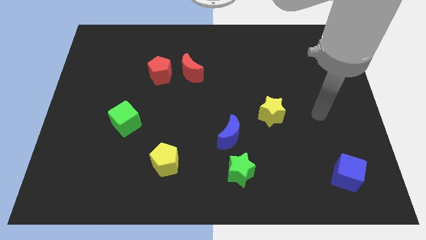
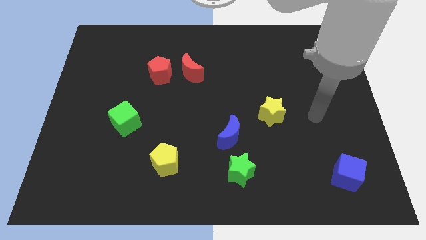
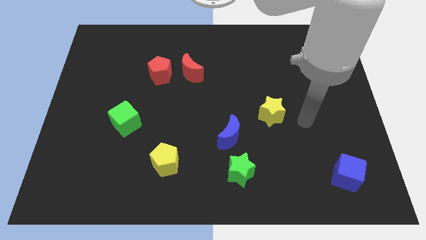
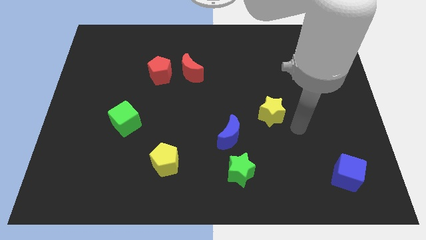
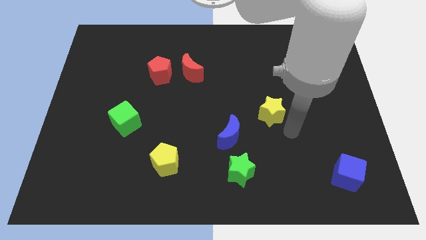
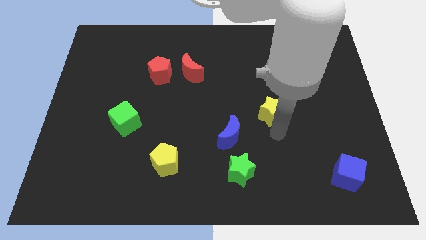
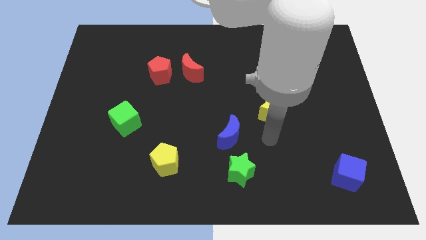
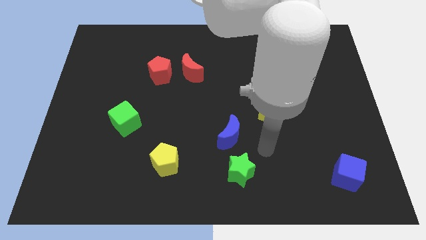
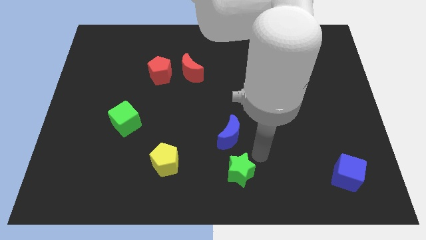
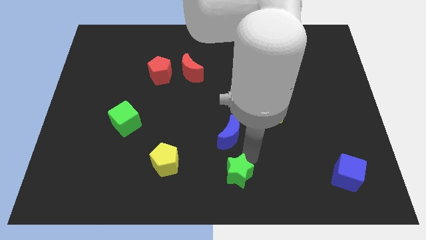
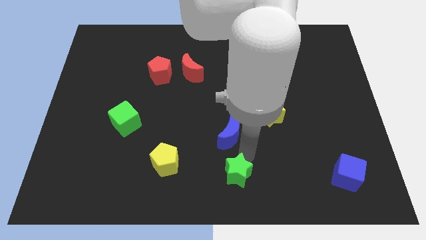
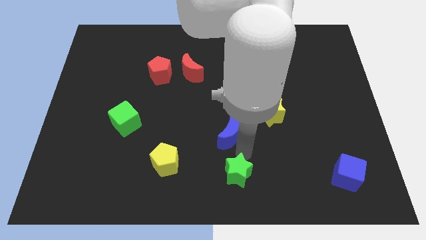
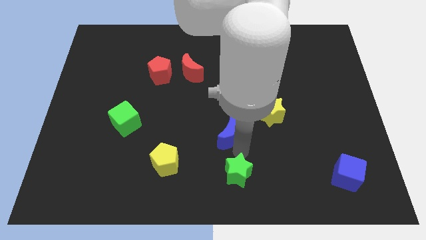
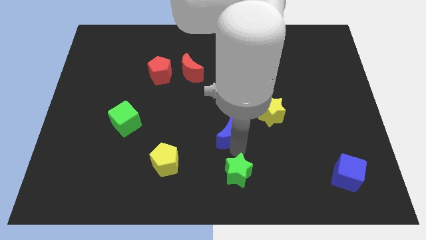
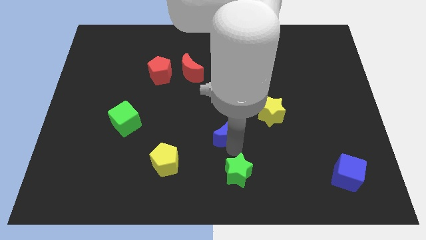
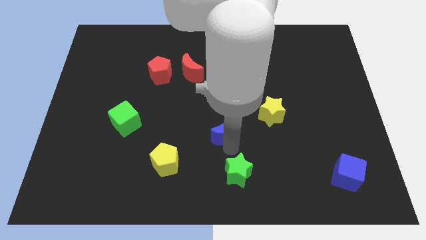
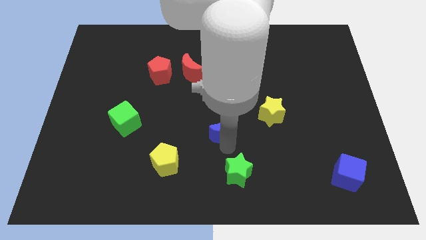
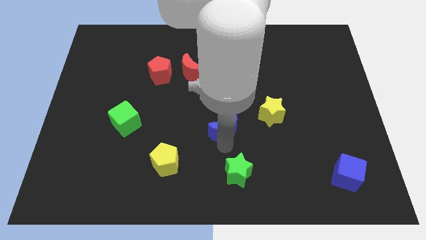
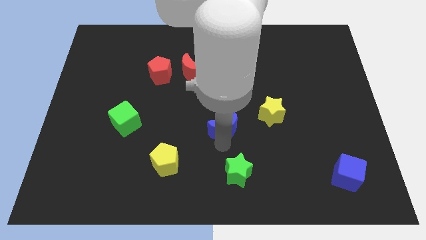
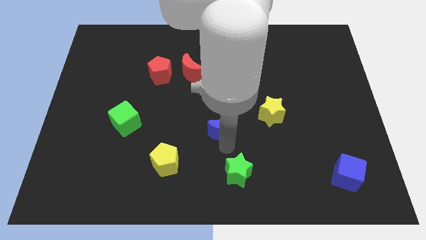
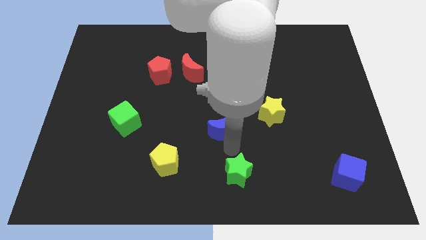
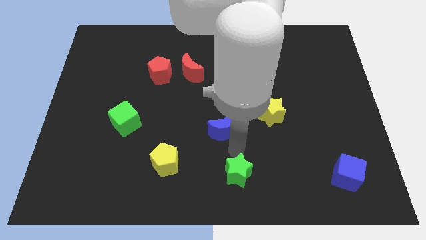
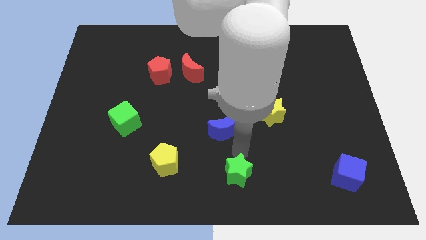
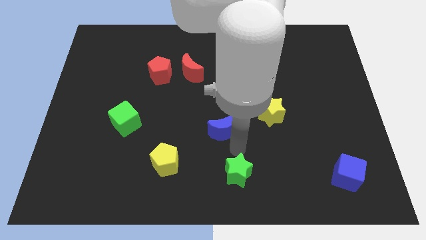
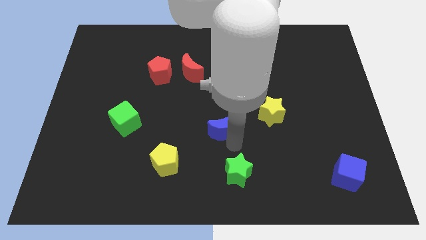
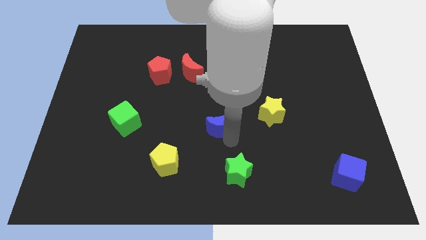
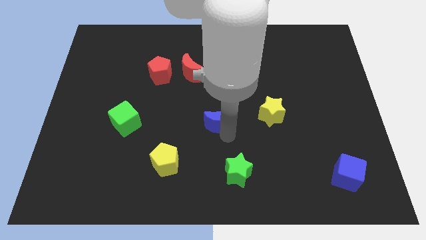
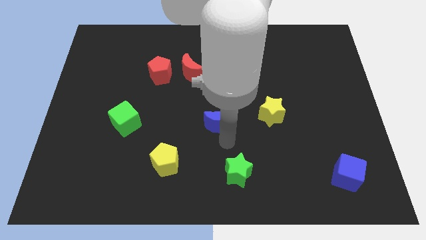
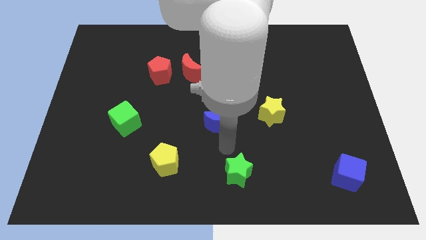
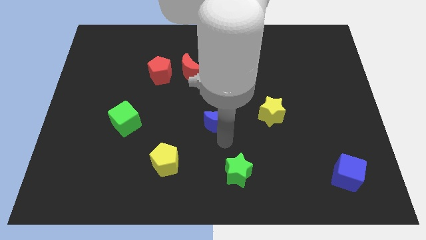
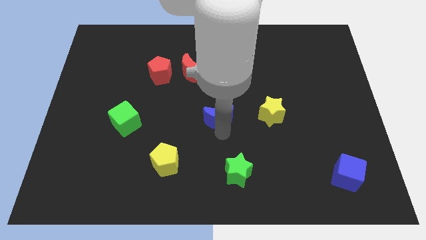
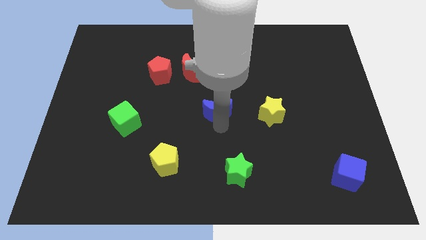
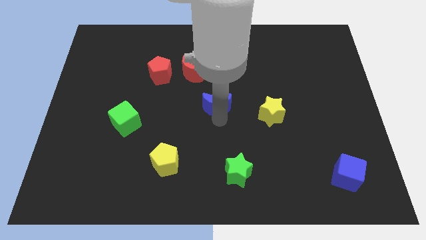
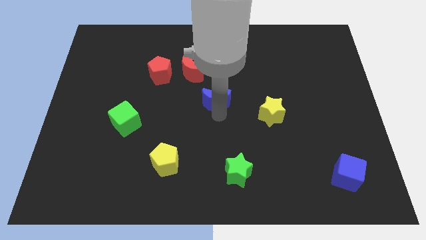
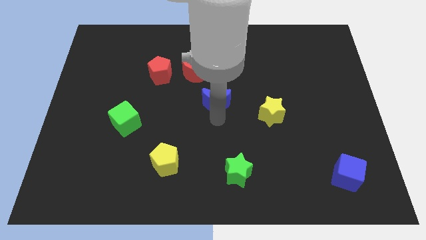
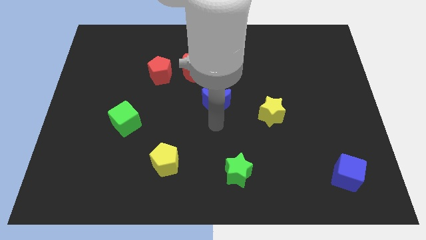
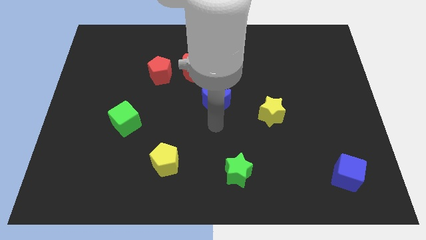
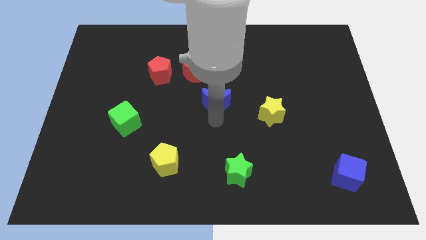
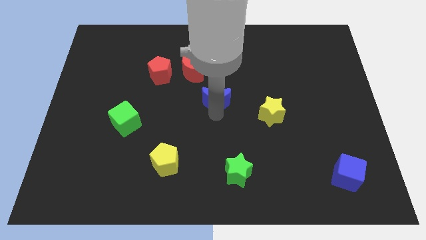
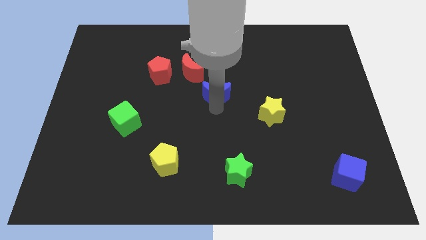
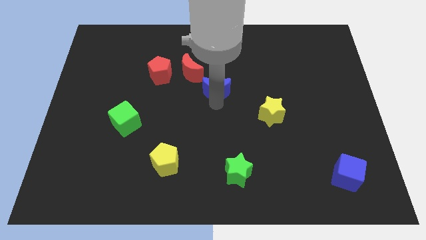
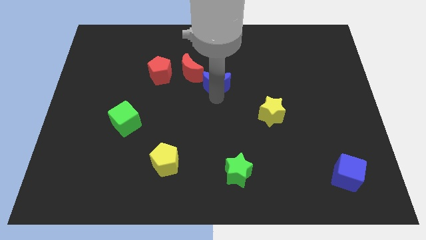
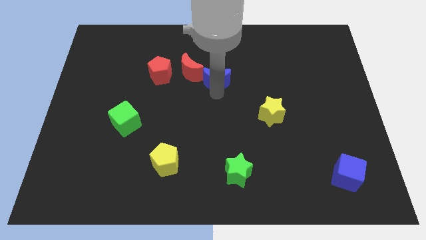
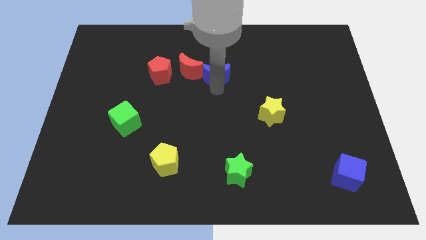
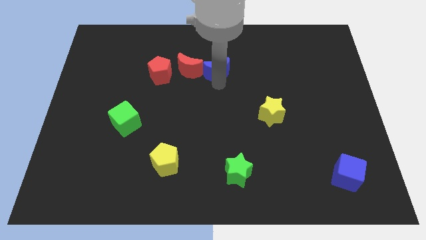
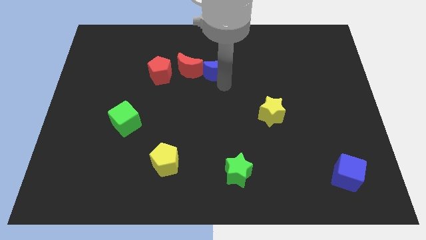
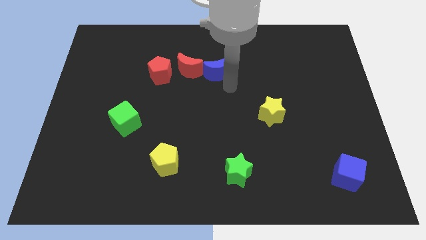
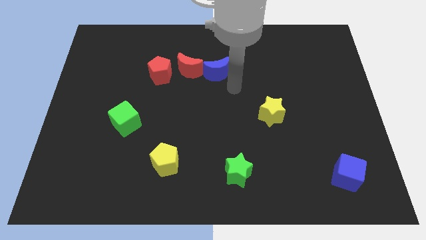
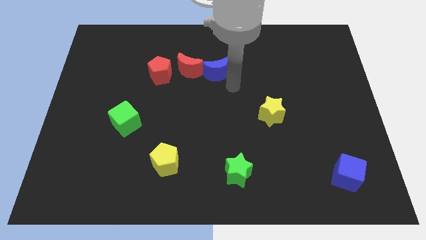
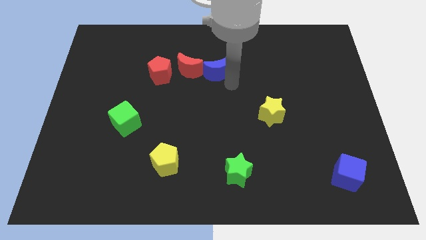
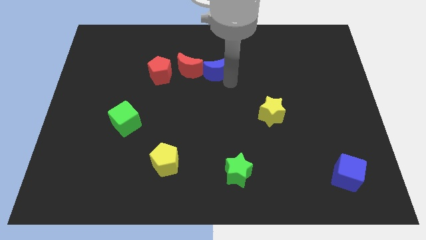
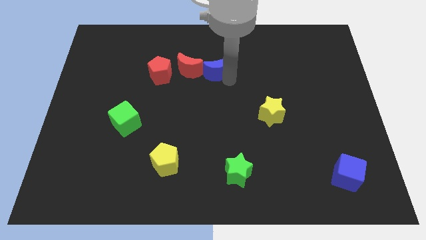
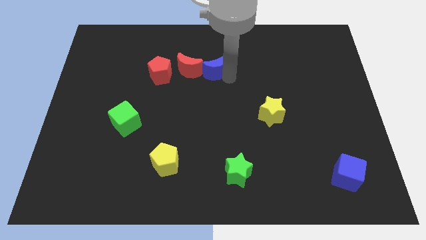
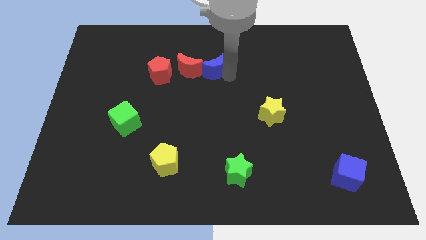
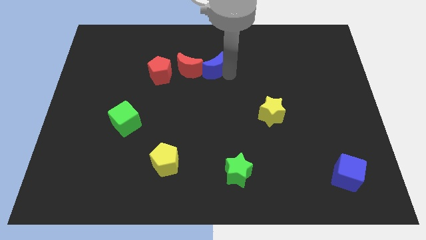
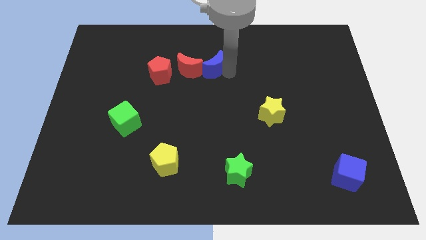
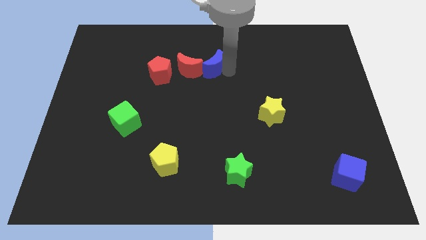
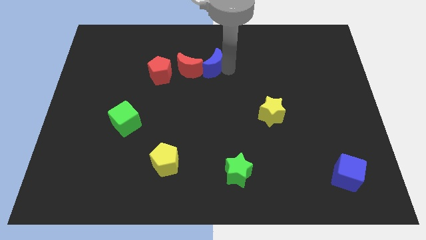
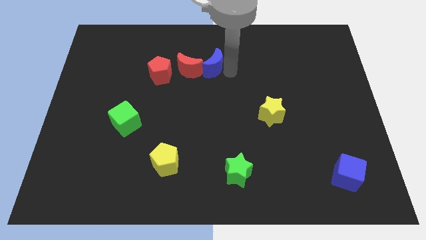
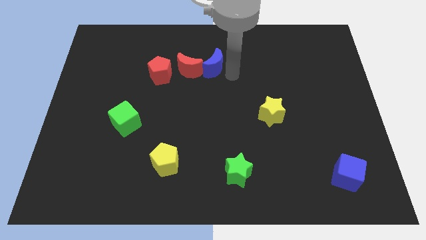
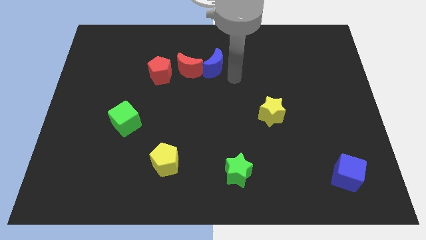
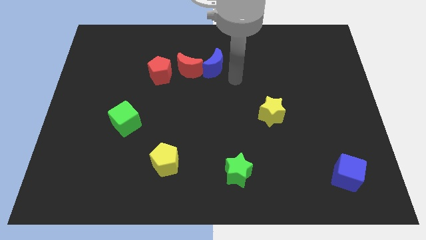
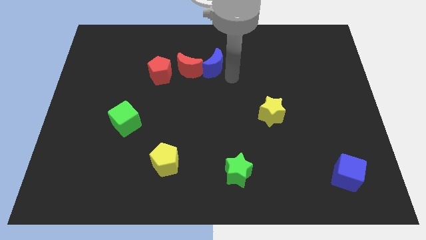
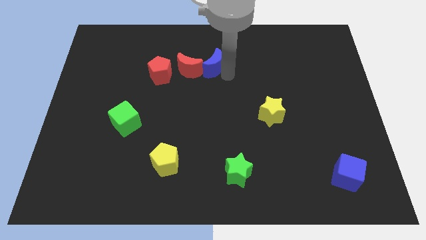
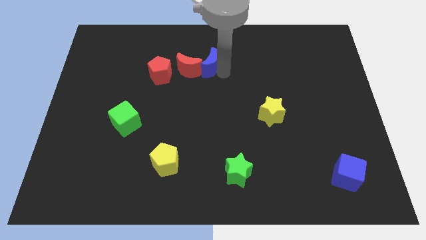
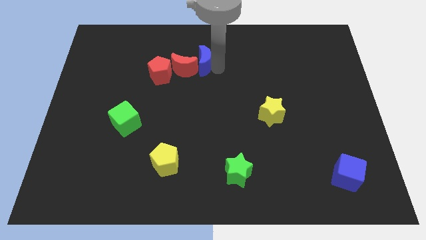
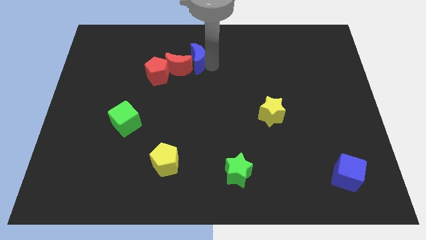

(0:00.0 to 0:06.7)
push the blue moon diagonally up and to the right of the red pentagon
